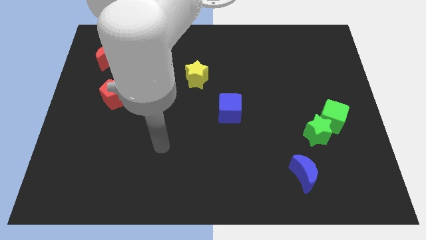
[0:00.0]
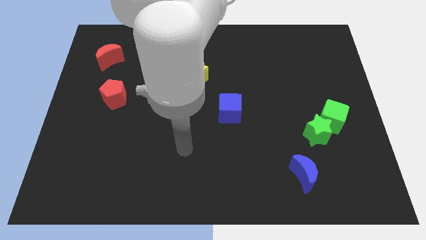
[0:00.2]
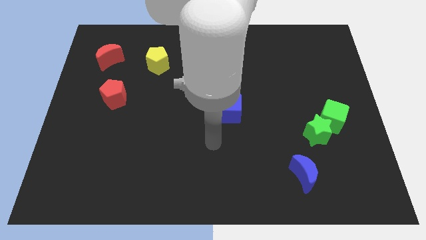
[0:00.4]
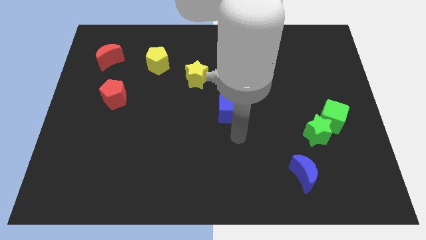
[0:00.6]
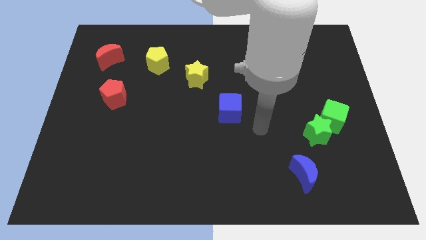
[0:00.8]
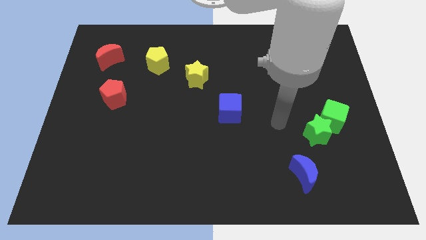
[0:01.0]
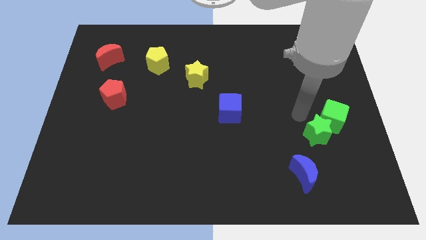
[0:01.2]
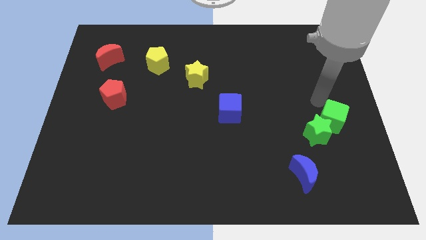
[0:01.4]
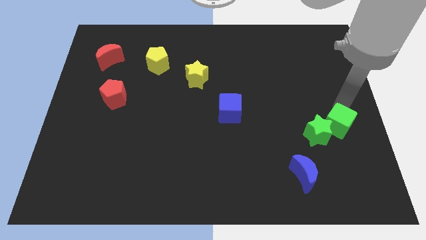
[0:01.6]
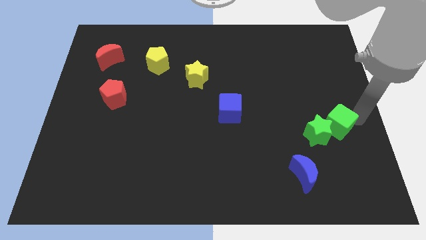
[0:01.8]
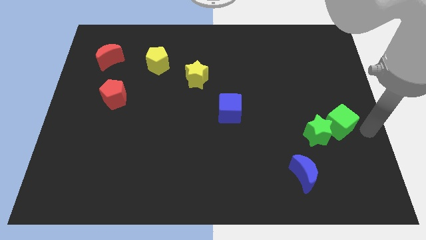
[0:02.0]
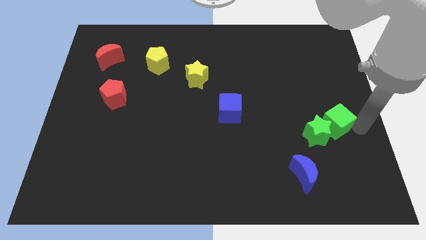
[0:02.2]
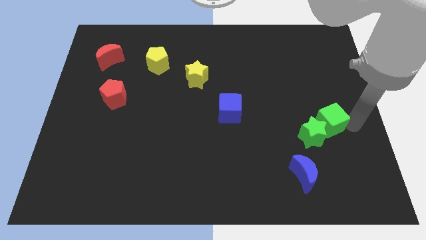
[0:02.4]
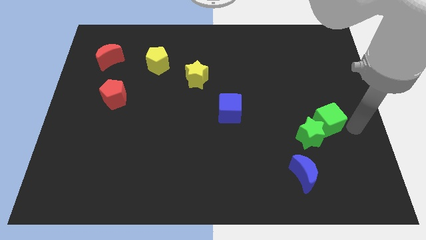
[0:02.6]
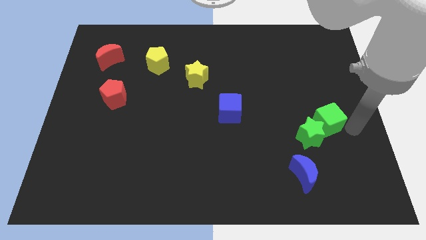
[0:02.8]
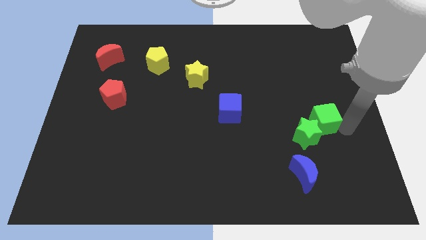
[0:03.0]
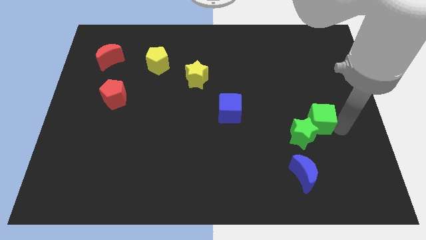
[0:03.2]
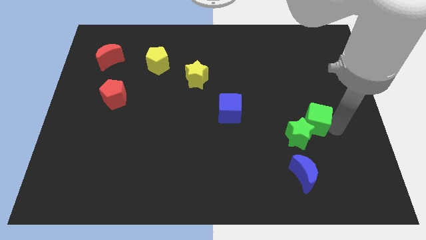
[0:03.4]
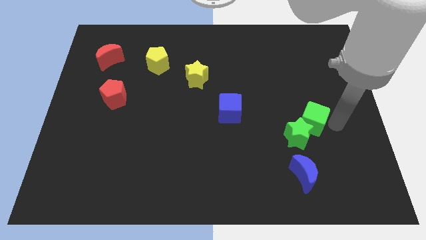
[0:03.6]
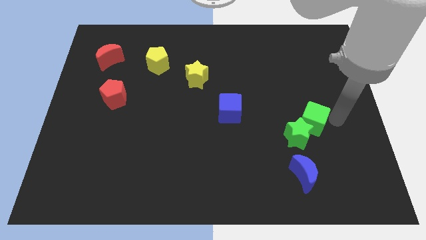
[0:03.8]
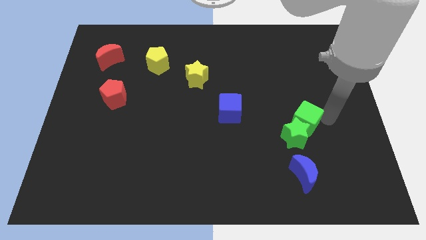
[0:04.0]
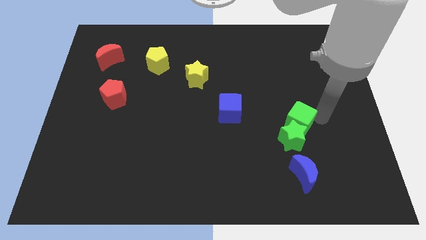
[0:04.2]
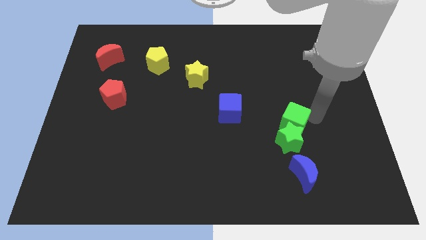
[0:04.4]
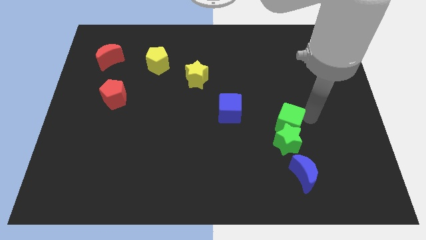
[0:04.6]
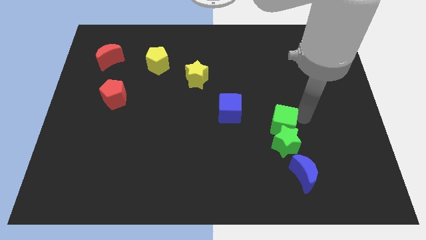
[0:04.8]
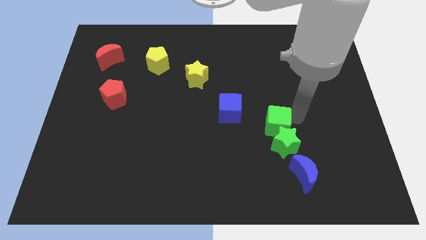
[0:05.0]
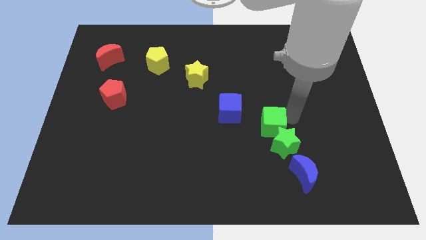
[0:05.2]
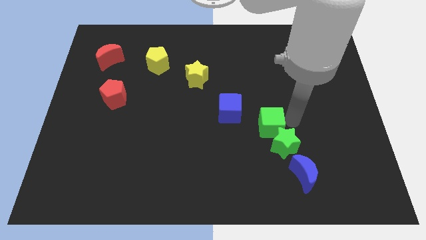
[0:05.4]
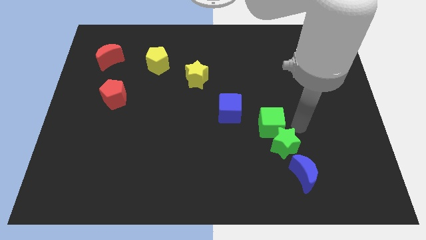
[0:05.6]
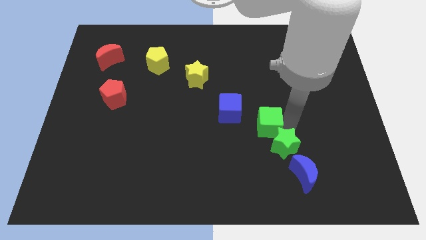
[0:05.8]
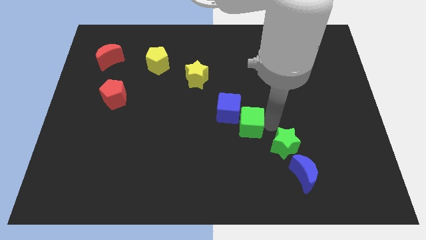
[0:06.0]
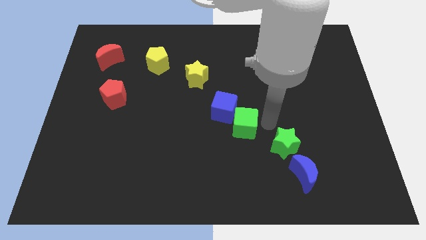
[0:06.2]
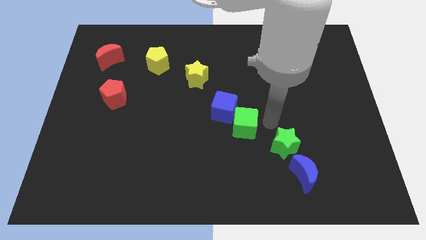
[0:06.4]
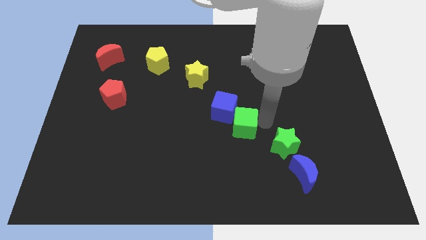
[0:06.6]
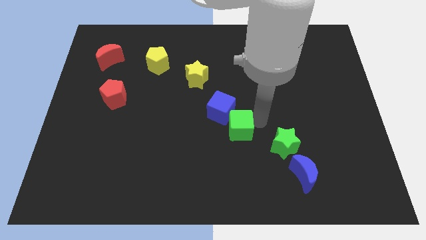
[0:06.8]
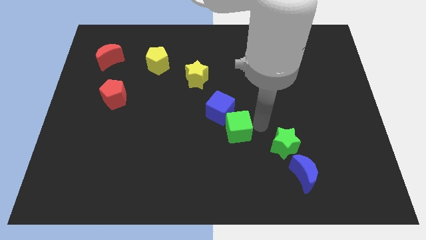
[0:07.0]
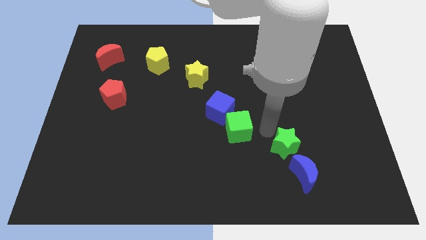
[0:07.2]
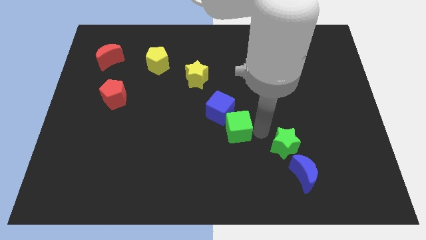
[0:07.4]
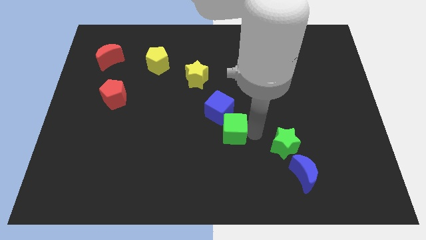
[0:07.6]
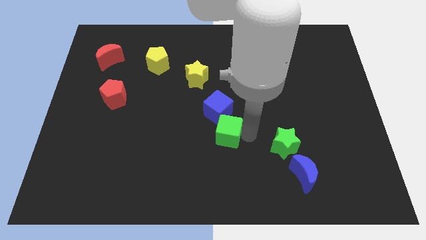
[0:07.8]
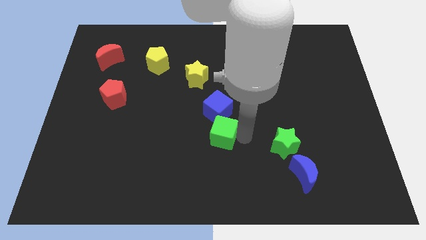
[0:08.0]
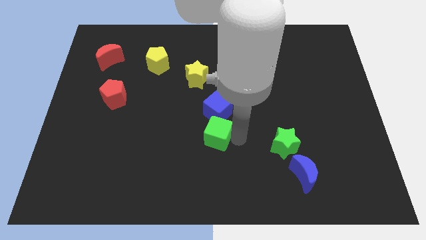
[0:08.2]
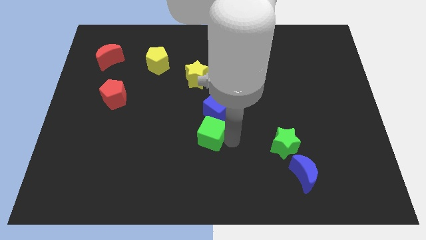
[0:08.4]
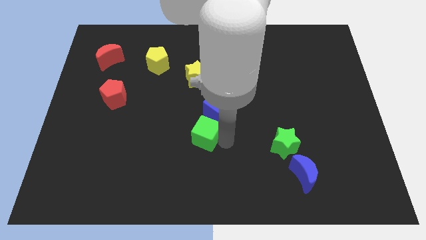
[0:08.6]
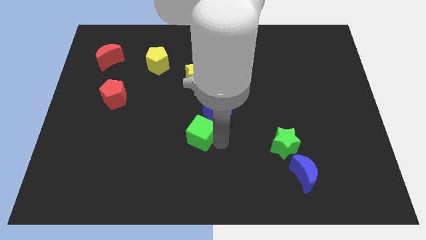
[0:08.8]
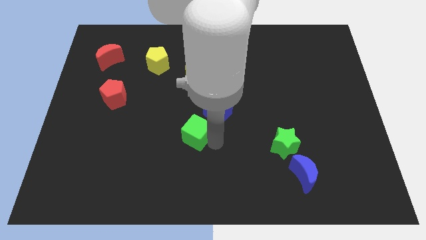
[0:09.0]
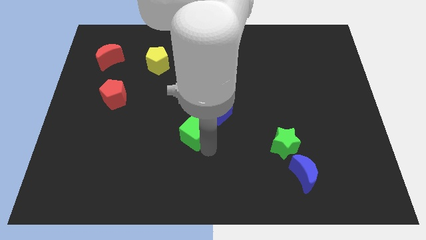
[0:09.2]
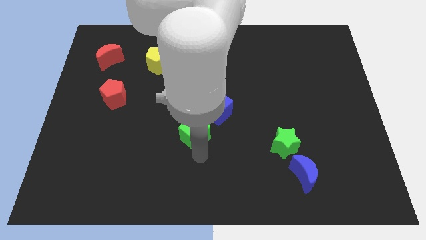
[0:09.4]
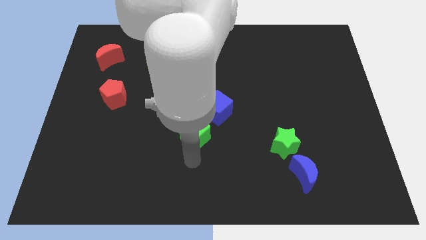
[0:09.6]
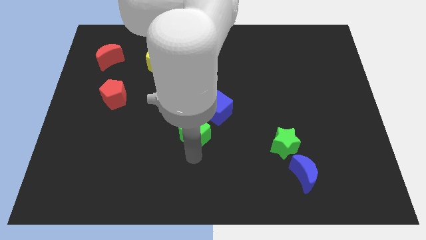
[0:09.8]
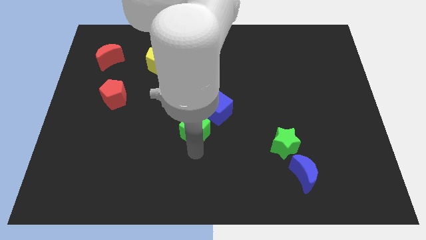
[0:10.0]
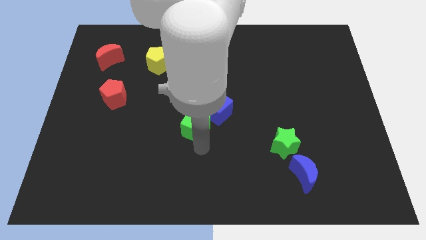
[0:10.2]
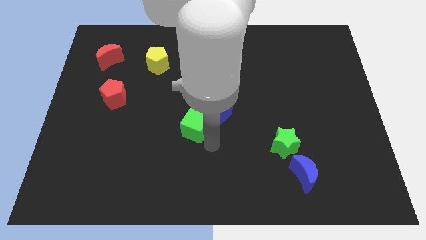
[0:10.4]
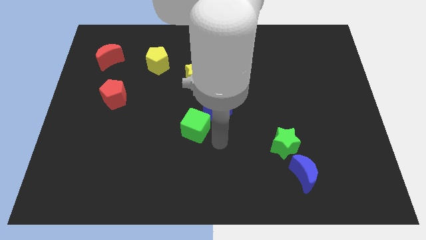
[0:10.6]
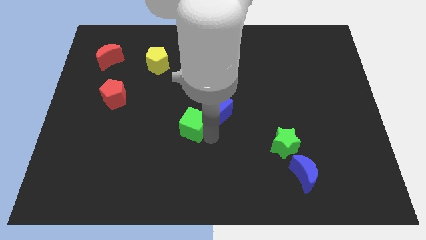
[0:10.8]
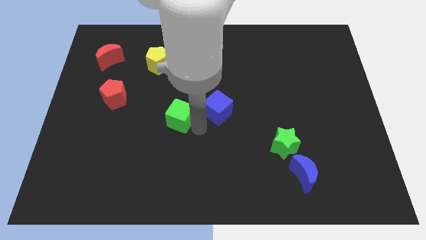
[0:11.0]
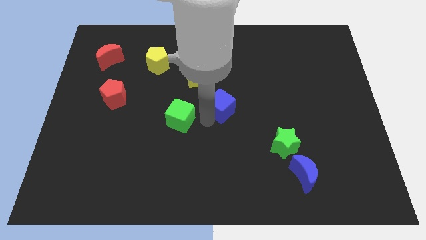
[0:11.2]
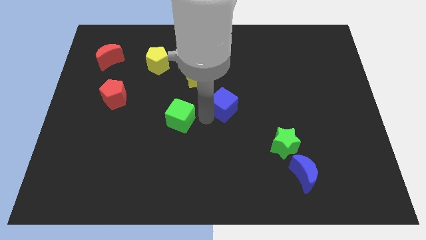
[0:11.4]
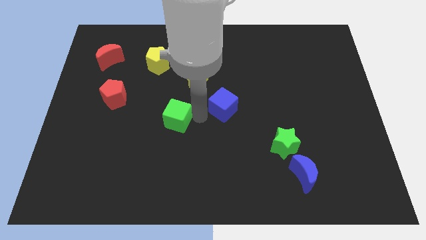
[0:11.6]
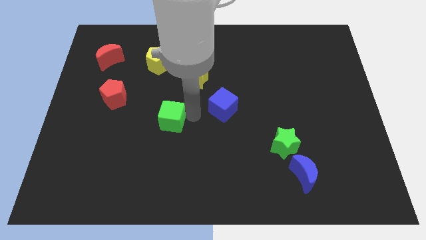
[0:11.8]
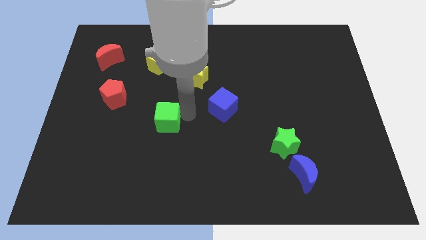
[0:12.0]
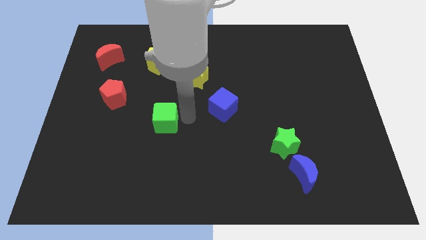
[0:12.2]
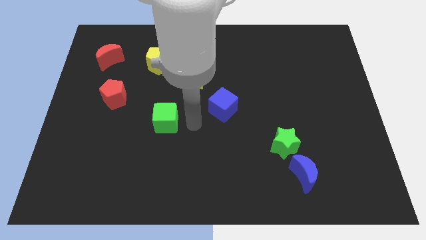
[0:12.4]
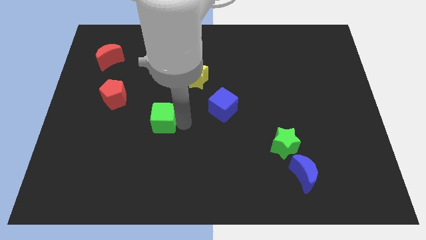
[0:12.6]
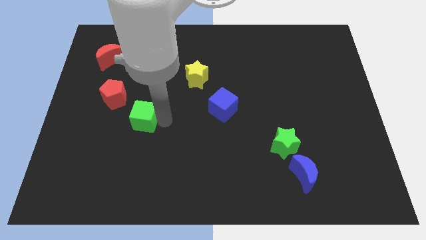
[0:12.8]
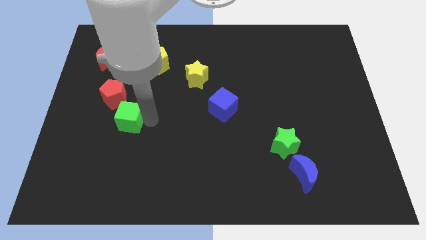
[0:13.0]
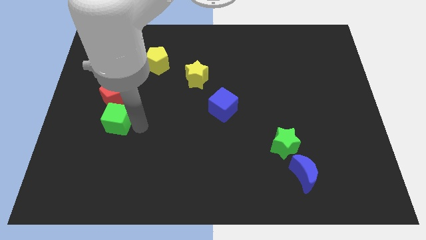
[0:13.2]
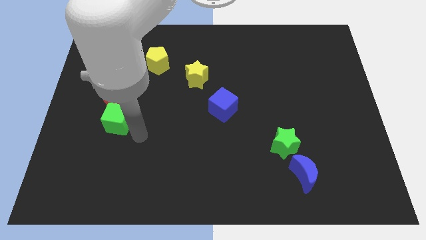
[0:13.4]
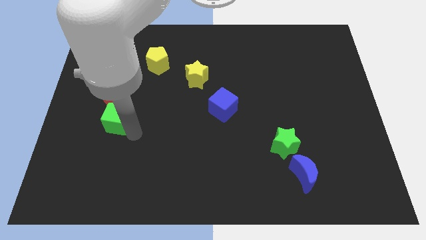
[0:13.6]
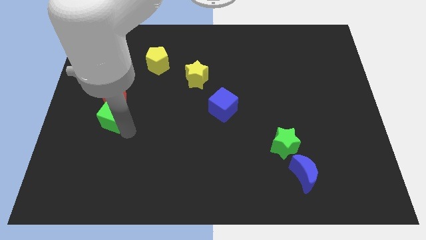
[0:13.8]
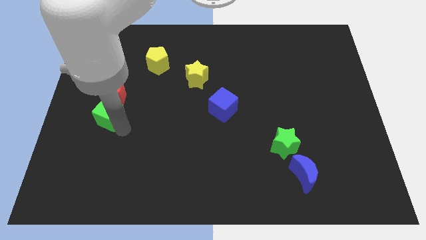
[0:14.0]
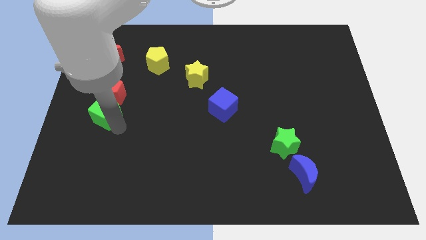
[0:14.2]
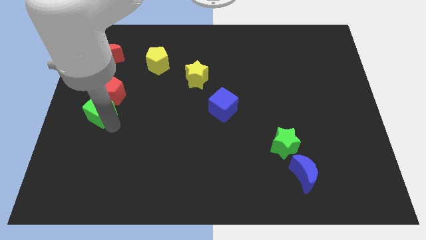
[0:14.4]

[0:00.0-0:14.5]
put the green cube to the center left
